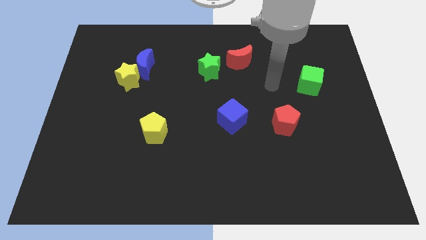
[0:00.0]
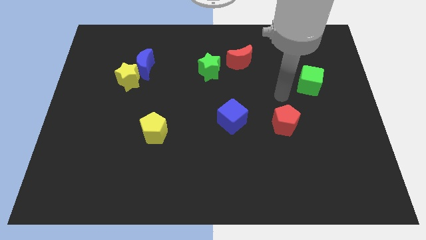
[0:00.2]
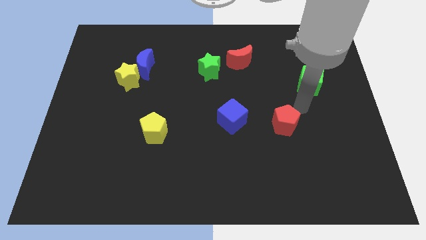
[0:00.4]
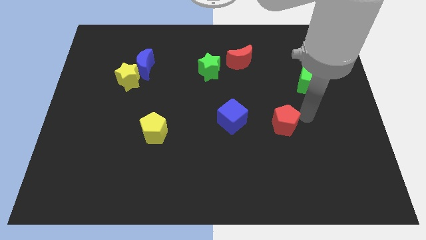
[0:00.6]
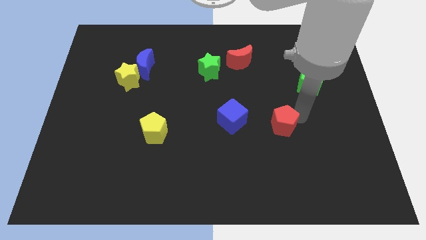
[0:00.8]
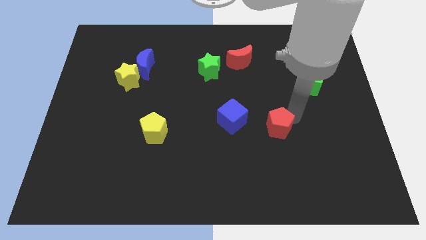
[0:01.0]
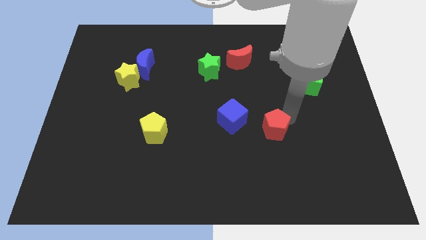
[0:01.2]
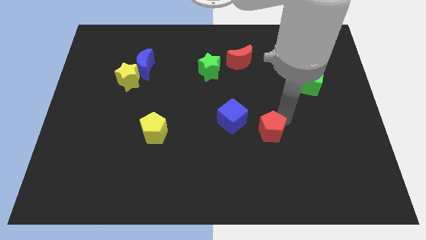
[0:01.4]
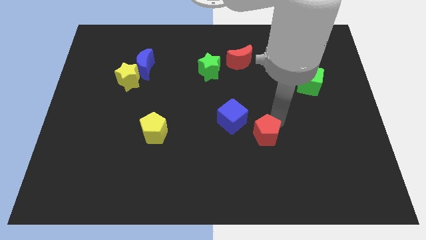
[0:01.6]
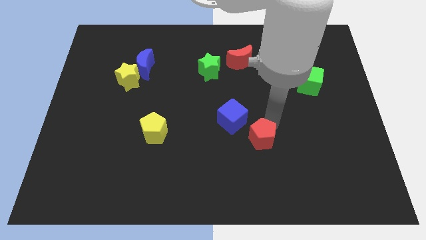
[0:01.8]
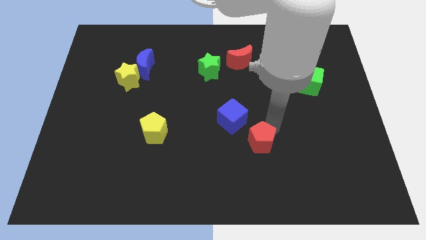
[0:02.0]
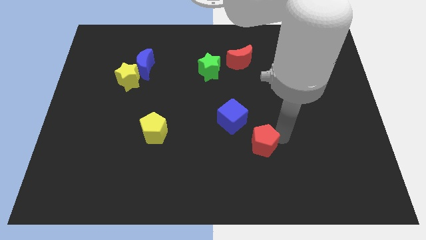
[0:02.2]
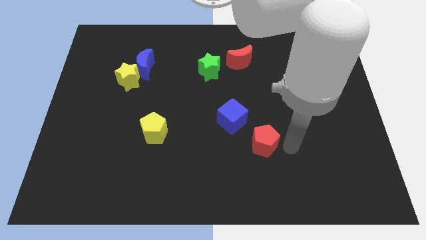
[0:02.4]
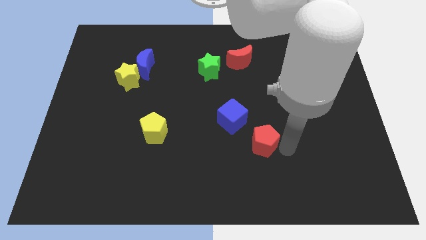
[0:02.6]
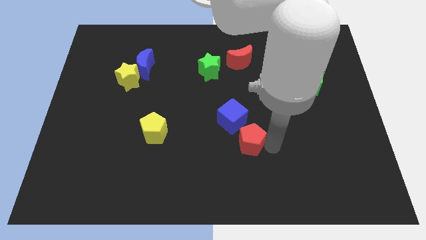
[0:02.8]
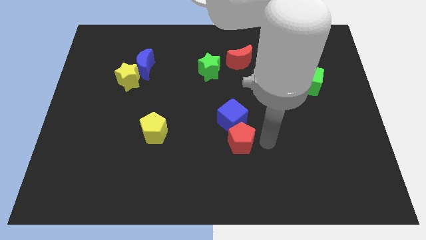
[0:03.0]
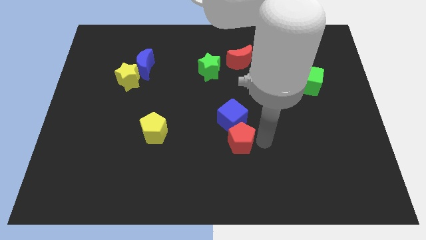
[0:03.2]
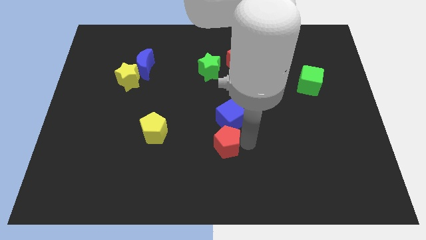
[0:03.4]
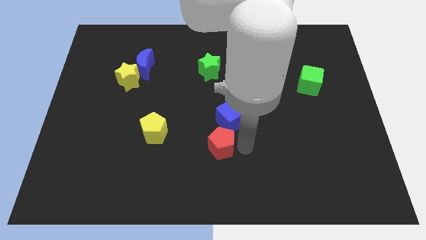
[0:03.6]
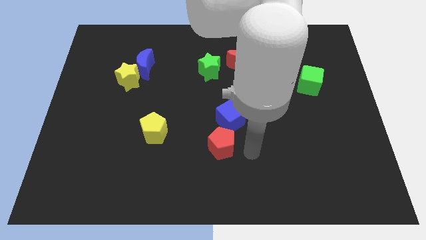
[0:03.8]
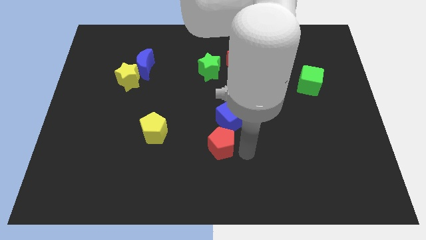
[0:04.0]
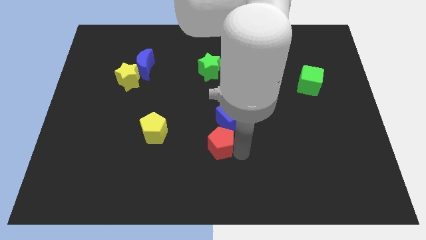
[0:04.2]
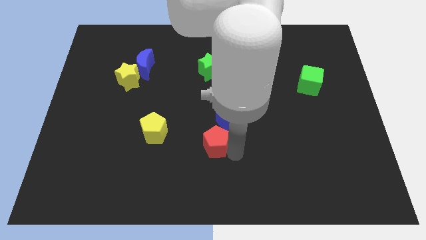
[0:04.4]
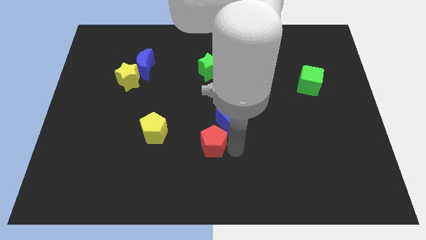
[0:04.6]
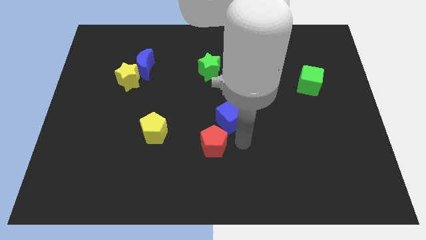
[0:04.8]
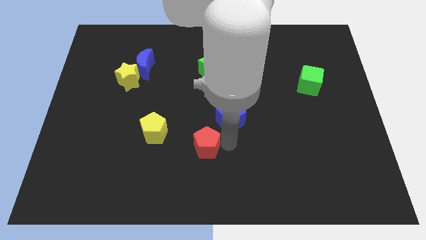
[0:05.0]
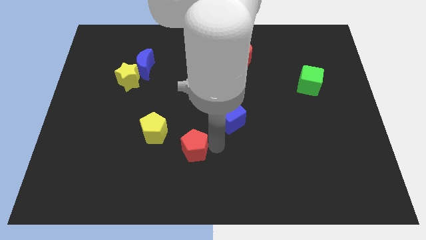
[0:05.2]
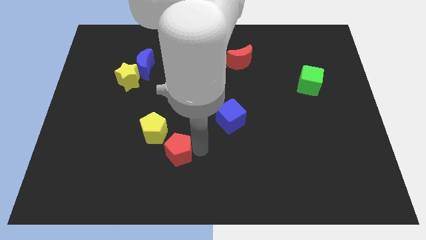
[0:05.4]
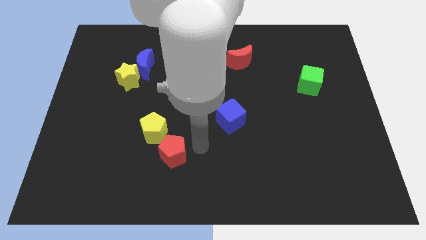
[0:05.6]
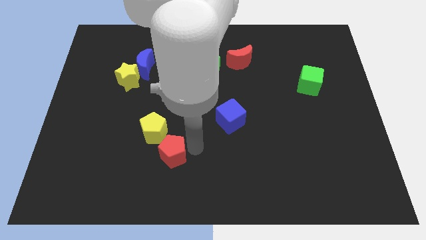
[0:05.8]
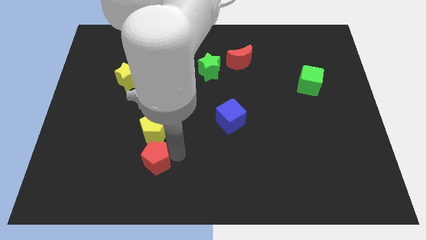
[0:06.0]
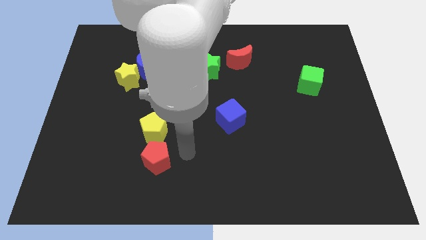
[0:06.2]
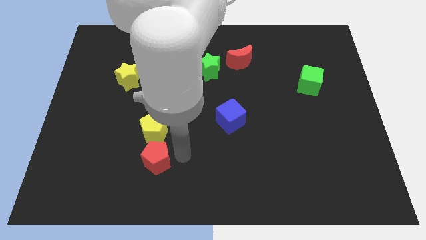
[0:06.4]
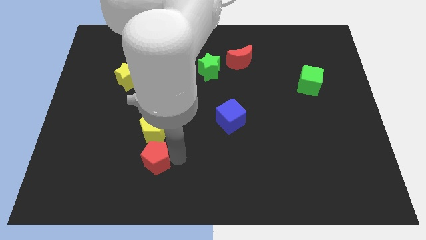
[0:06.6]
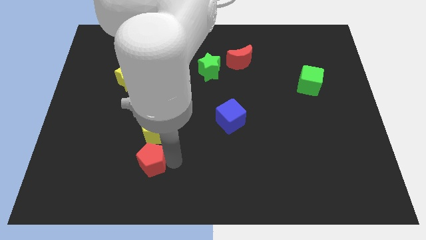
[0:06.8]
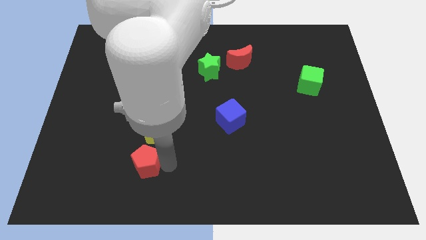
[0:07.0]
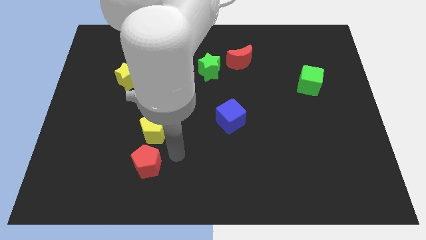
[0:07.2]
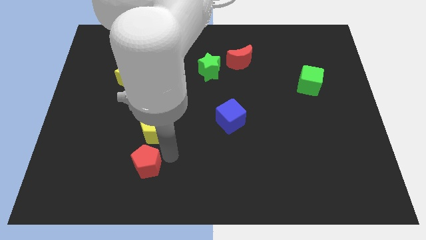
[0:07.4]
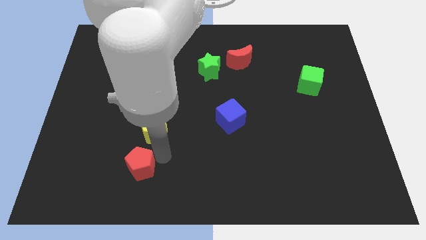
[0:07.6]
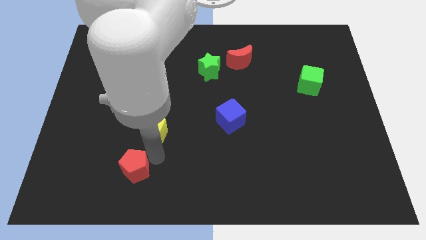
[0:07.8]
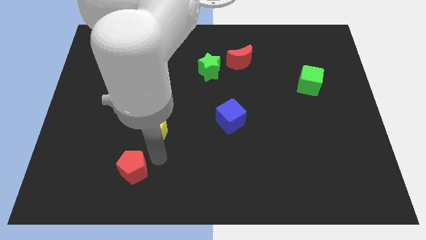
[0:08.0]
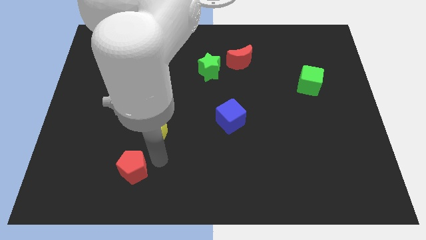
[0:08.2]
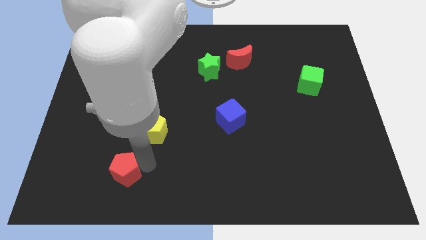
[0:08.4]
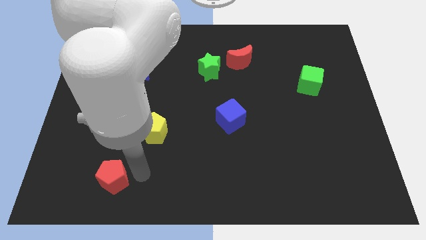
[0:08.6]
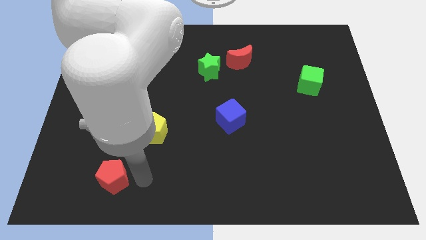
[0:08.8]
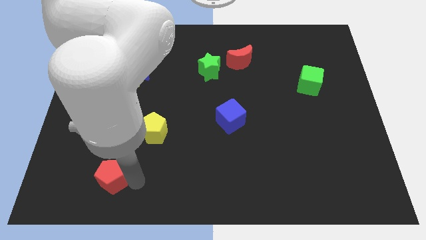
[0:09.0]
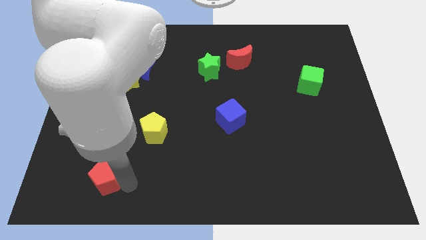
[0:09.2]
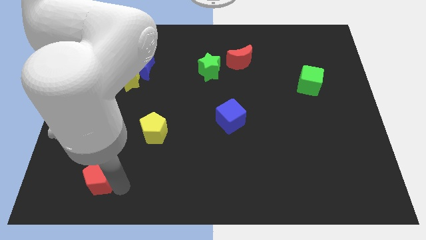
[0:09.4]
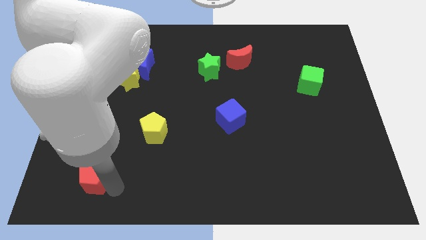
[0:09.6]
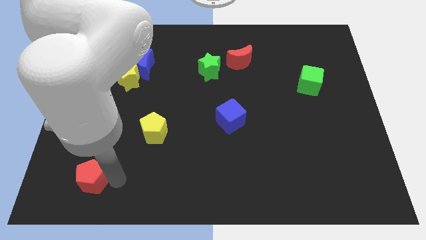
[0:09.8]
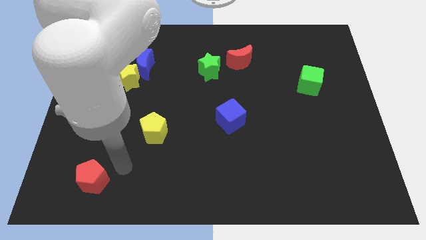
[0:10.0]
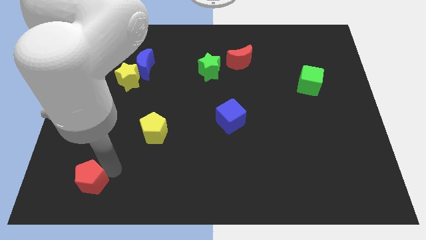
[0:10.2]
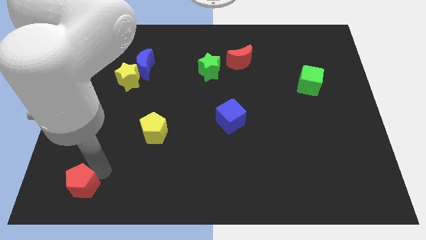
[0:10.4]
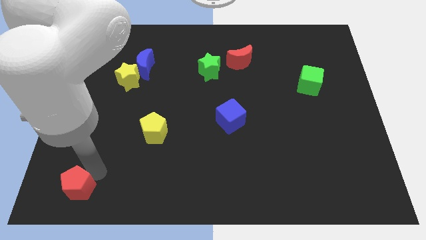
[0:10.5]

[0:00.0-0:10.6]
push the red pentagon to the bottom left

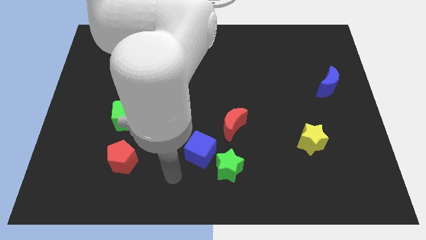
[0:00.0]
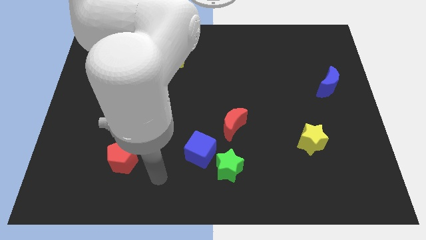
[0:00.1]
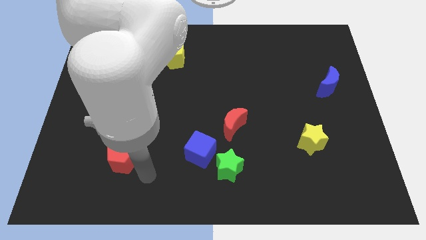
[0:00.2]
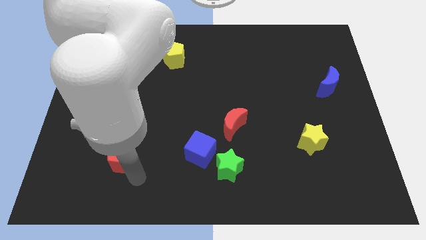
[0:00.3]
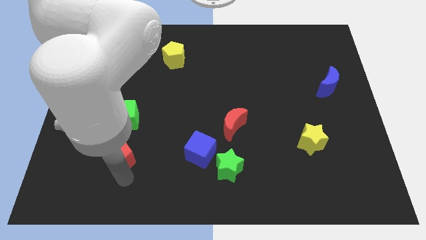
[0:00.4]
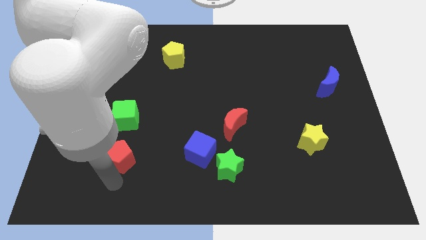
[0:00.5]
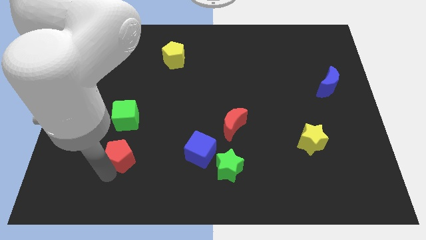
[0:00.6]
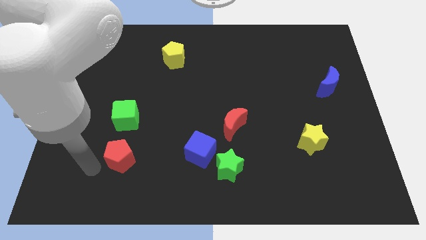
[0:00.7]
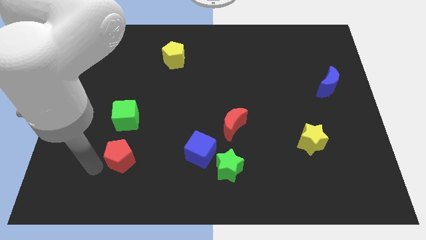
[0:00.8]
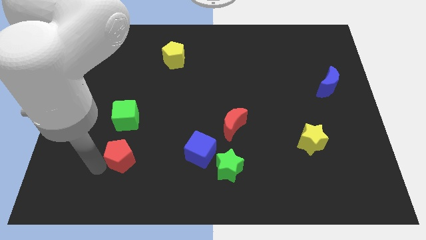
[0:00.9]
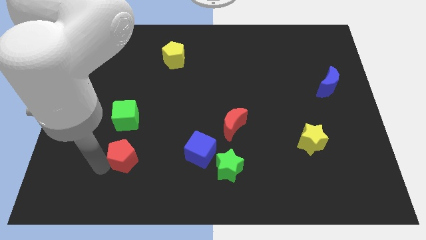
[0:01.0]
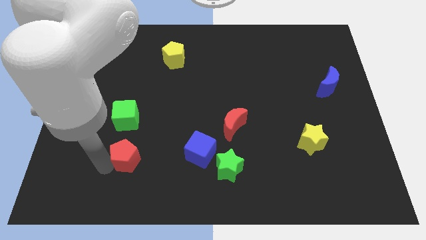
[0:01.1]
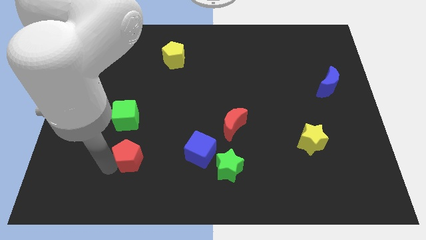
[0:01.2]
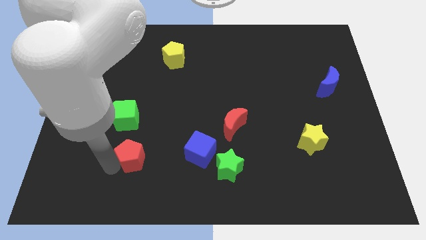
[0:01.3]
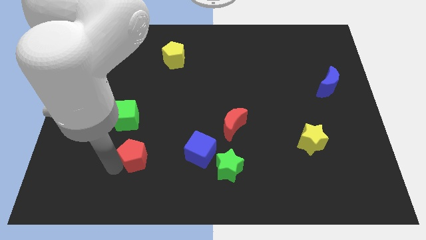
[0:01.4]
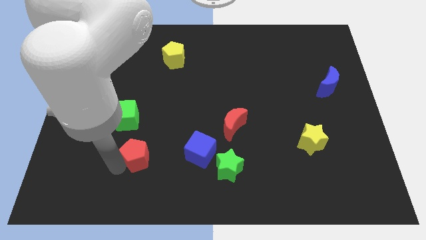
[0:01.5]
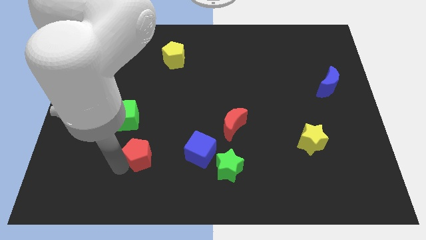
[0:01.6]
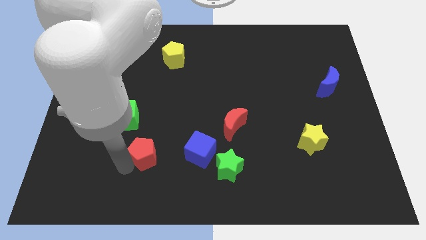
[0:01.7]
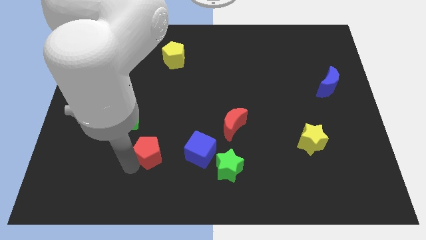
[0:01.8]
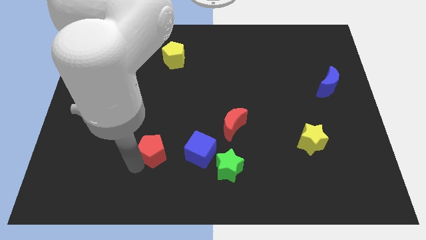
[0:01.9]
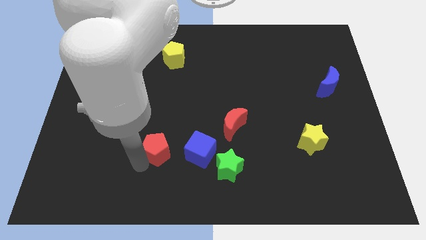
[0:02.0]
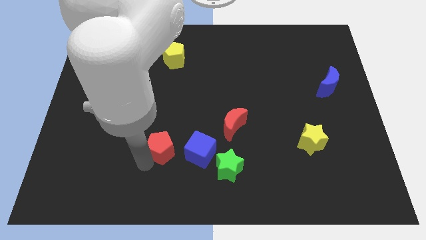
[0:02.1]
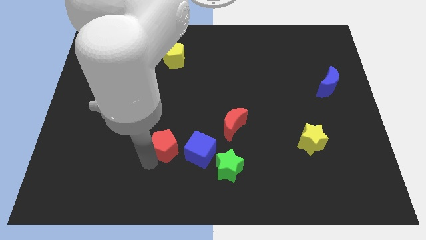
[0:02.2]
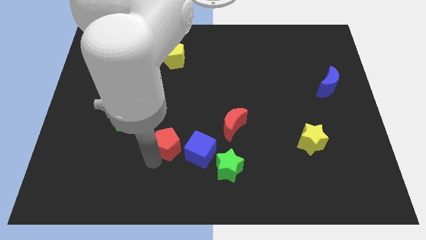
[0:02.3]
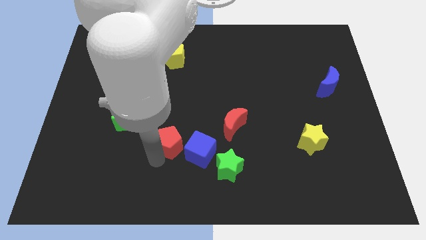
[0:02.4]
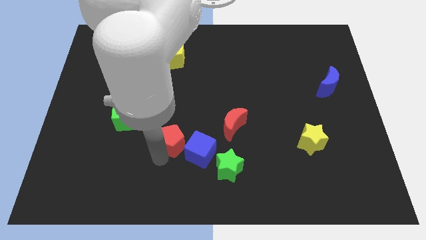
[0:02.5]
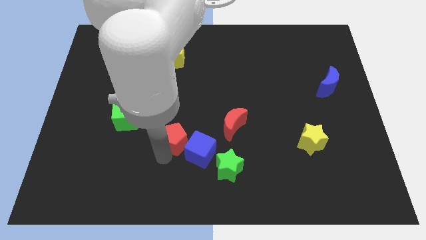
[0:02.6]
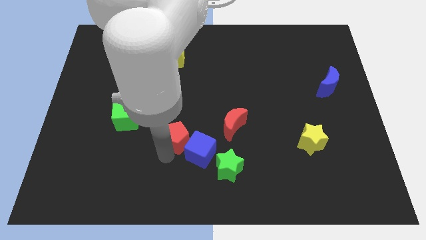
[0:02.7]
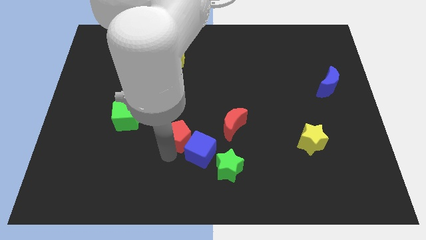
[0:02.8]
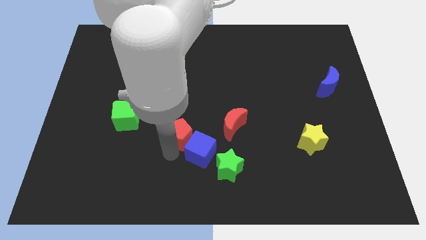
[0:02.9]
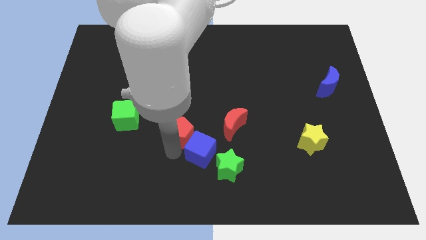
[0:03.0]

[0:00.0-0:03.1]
move the red pentagon to the center
